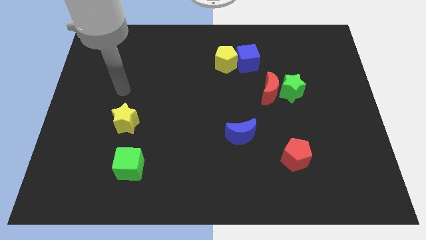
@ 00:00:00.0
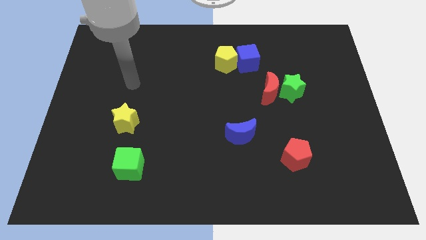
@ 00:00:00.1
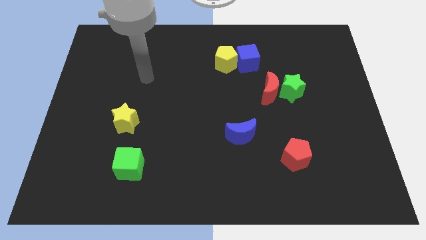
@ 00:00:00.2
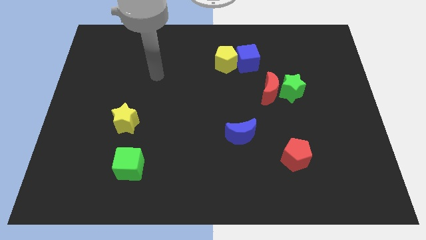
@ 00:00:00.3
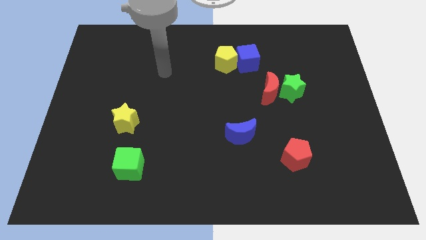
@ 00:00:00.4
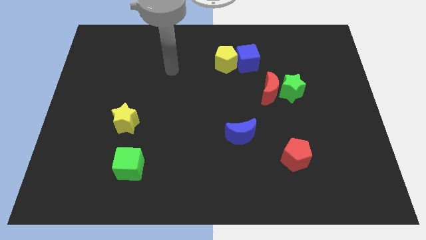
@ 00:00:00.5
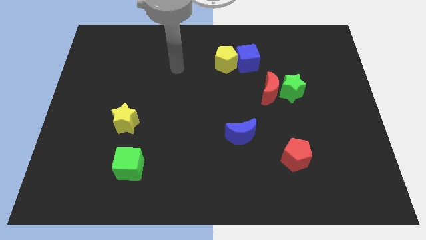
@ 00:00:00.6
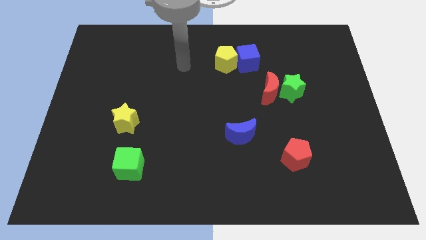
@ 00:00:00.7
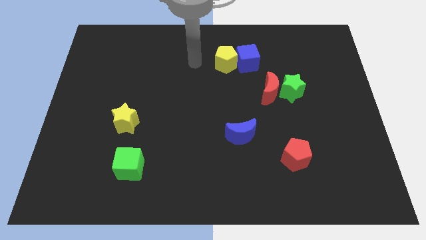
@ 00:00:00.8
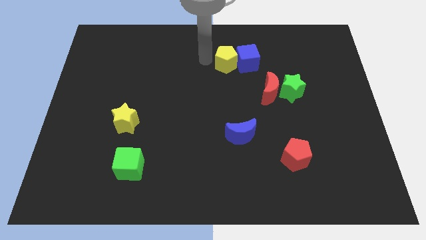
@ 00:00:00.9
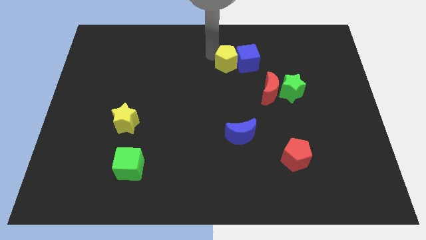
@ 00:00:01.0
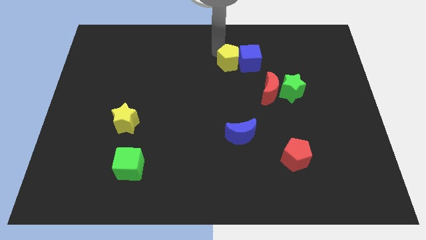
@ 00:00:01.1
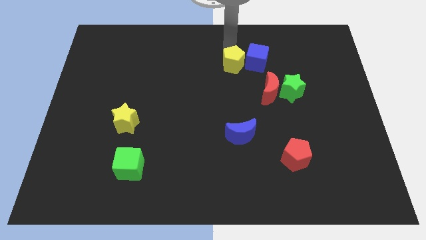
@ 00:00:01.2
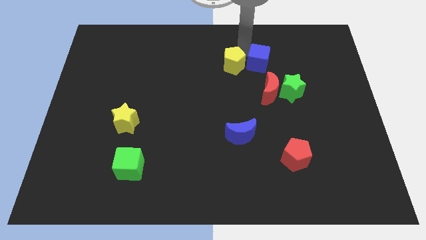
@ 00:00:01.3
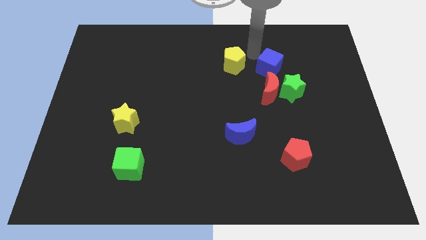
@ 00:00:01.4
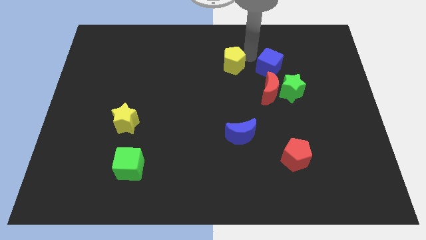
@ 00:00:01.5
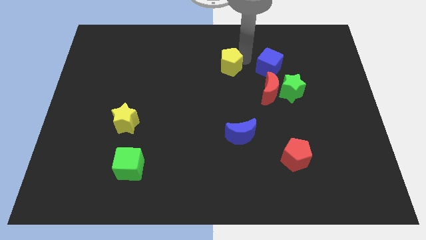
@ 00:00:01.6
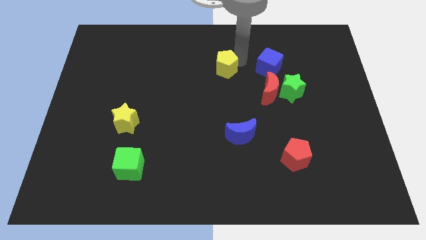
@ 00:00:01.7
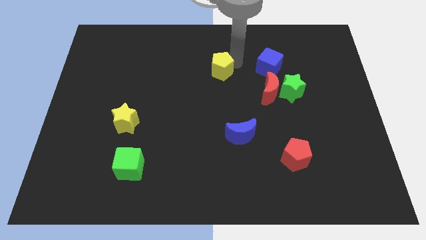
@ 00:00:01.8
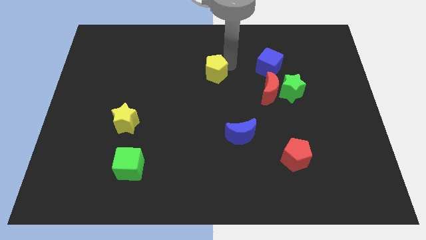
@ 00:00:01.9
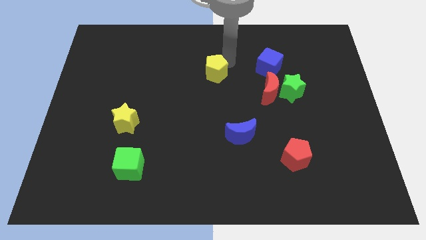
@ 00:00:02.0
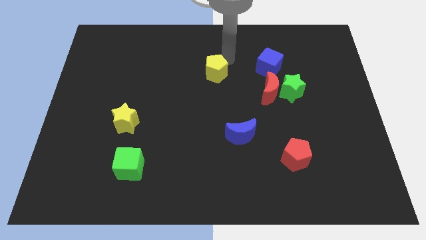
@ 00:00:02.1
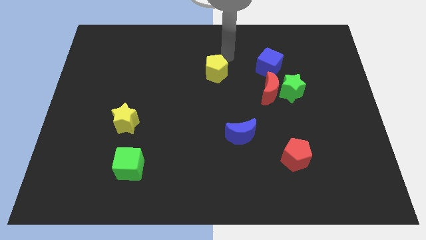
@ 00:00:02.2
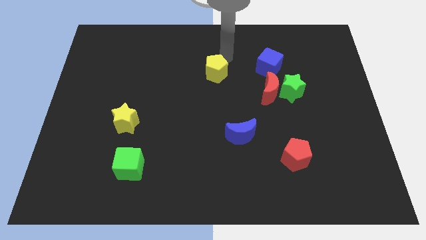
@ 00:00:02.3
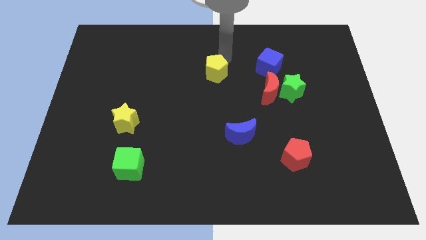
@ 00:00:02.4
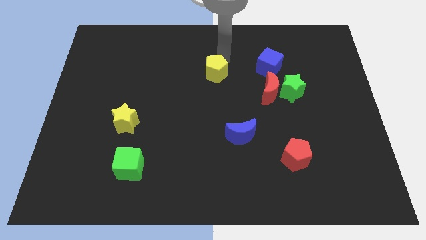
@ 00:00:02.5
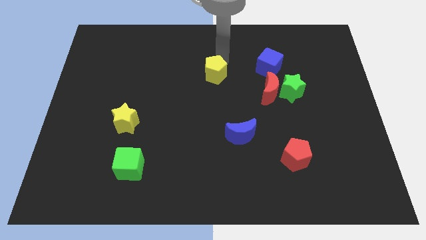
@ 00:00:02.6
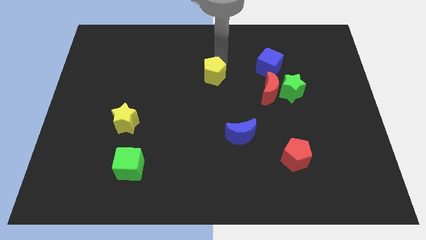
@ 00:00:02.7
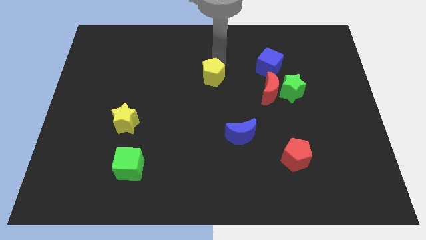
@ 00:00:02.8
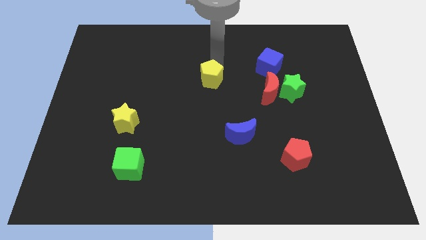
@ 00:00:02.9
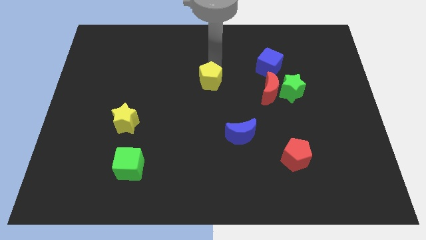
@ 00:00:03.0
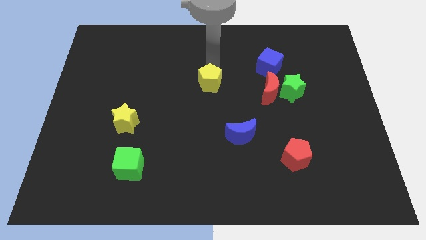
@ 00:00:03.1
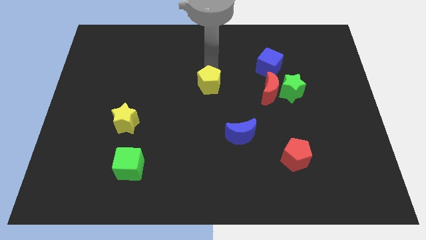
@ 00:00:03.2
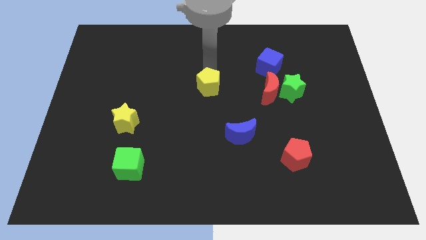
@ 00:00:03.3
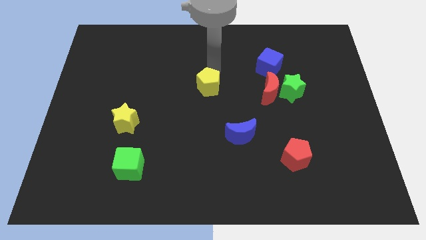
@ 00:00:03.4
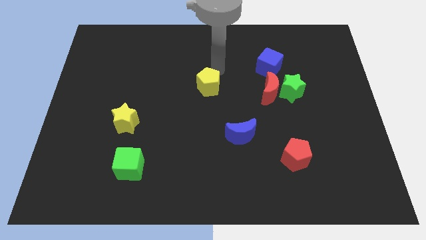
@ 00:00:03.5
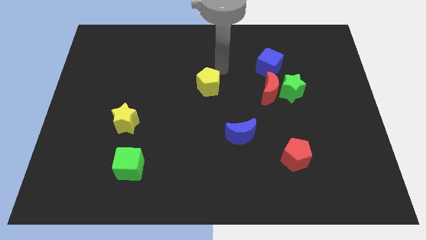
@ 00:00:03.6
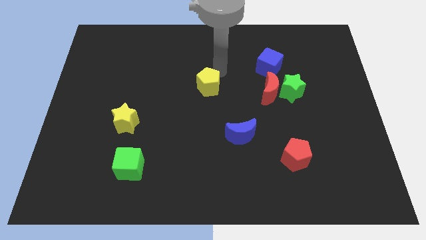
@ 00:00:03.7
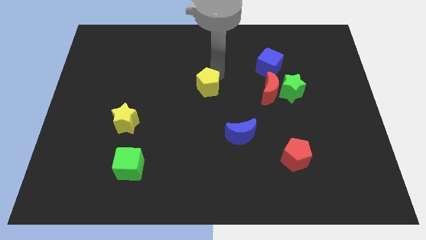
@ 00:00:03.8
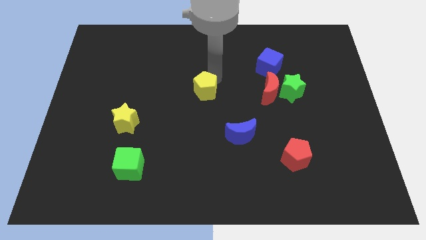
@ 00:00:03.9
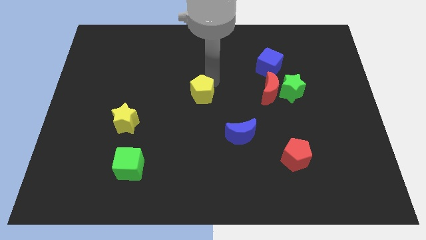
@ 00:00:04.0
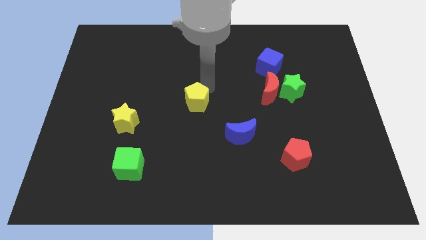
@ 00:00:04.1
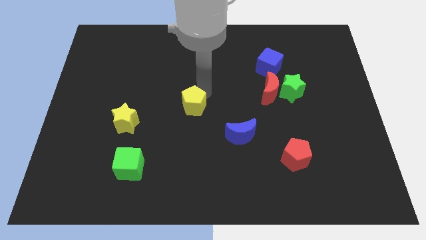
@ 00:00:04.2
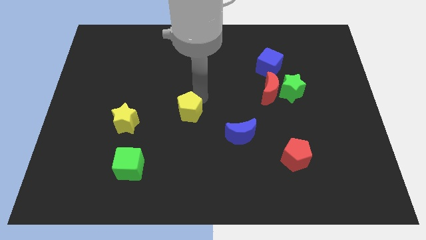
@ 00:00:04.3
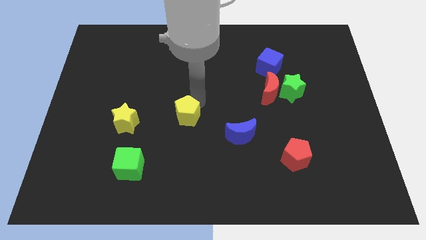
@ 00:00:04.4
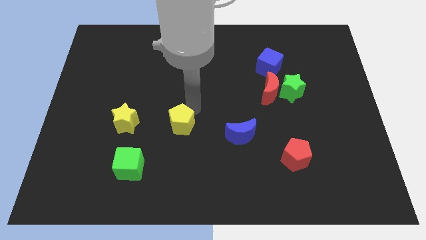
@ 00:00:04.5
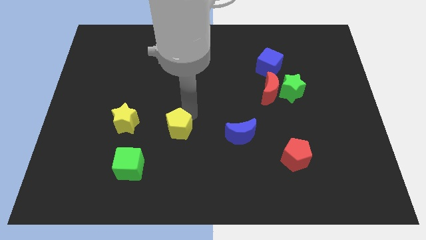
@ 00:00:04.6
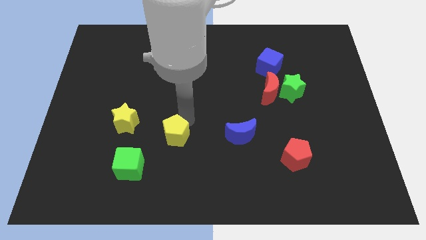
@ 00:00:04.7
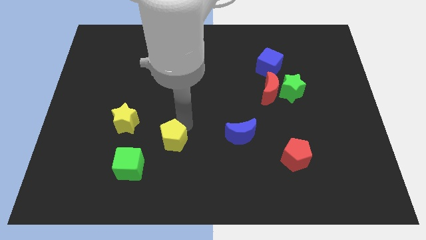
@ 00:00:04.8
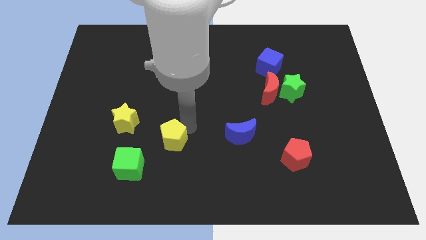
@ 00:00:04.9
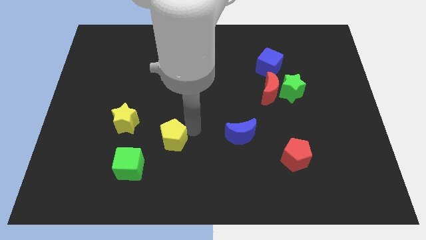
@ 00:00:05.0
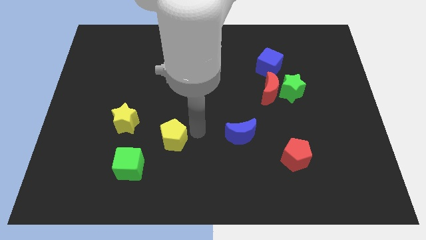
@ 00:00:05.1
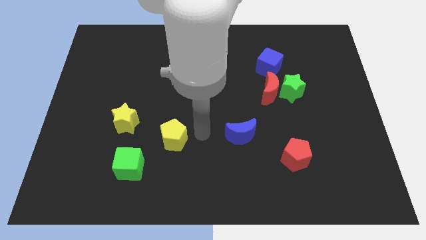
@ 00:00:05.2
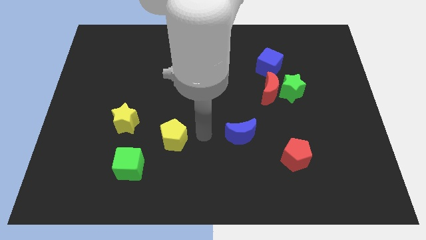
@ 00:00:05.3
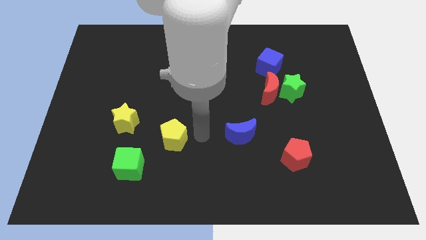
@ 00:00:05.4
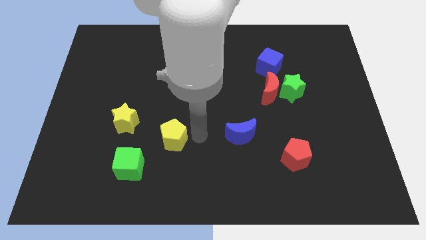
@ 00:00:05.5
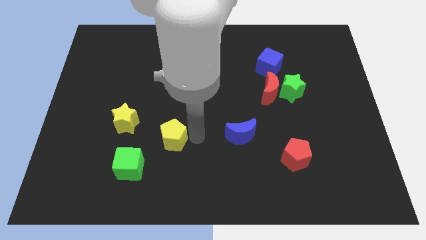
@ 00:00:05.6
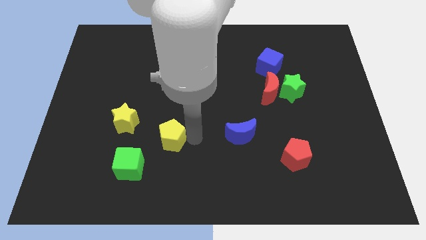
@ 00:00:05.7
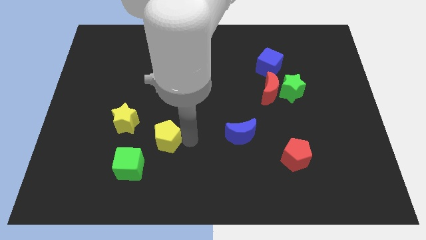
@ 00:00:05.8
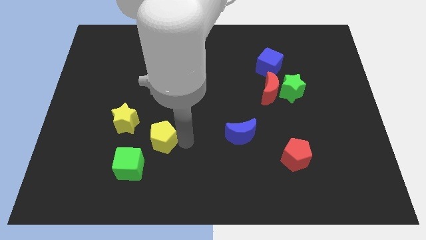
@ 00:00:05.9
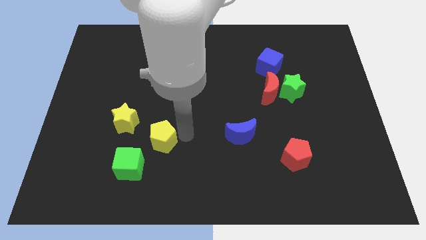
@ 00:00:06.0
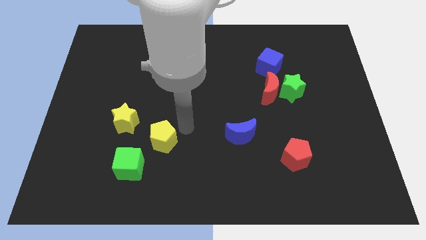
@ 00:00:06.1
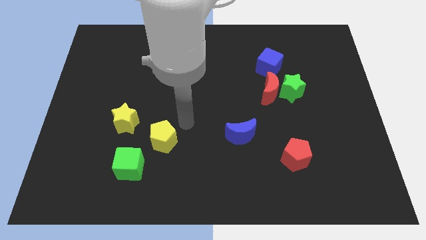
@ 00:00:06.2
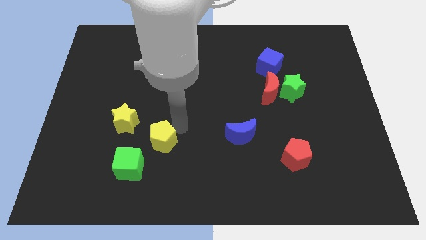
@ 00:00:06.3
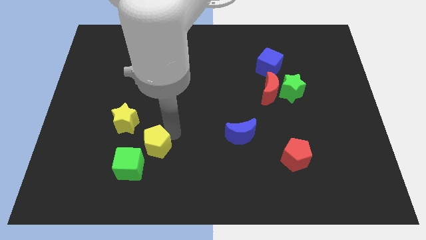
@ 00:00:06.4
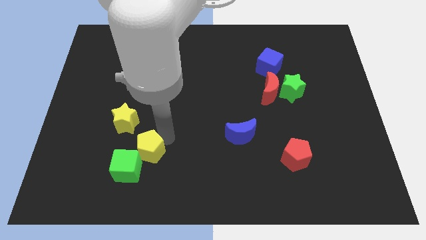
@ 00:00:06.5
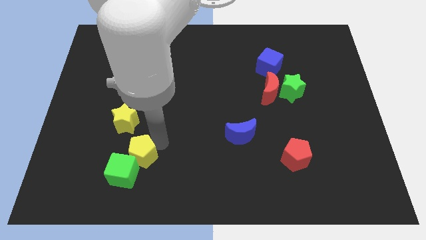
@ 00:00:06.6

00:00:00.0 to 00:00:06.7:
slide the yellow pentagon close to the green cube

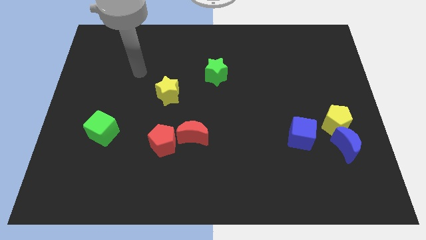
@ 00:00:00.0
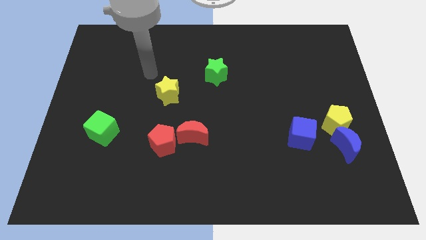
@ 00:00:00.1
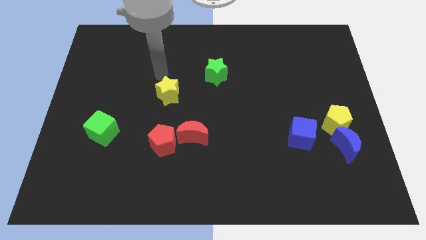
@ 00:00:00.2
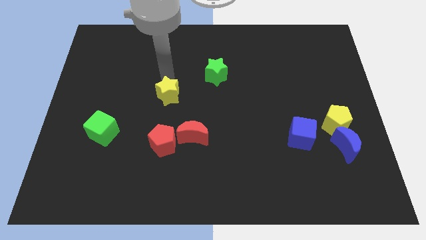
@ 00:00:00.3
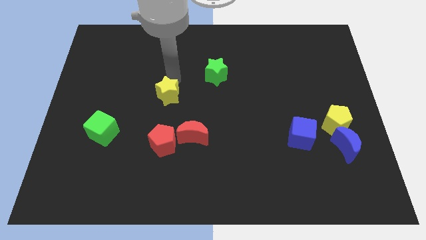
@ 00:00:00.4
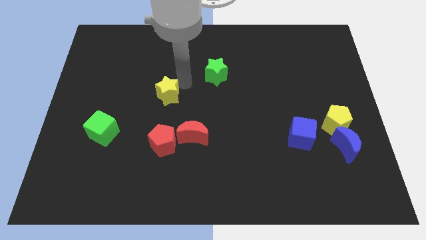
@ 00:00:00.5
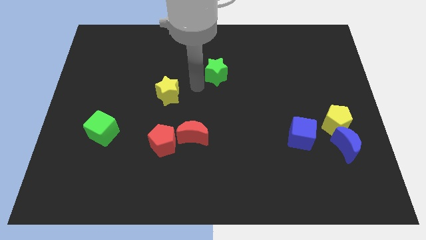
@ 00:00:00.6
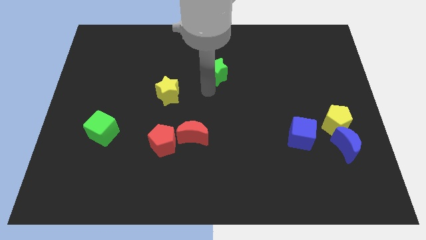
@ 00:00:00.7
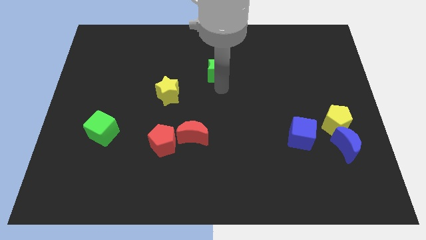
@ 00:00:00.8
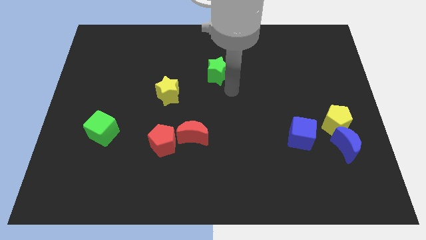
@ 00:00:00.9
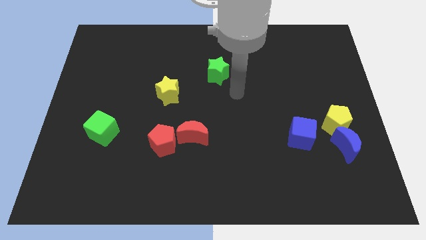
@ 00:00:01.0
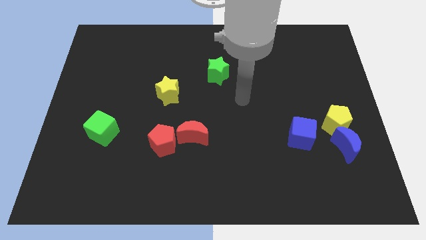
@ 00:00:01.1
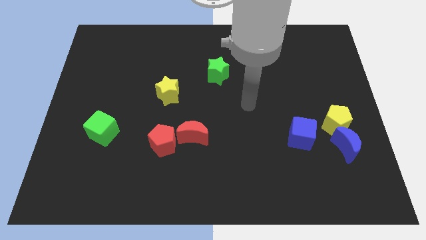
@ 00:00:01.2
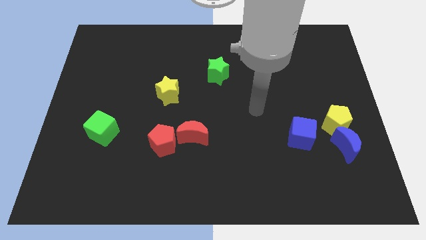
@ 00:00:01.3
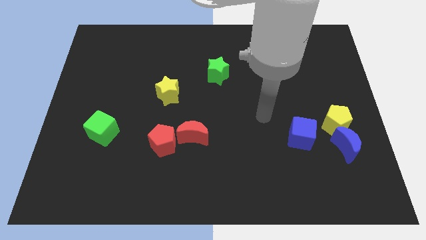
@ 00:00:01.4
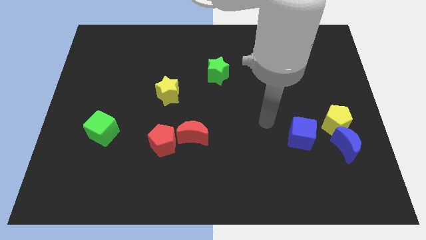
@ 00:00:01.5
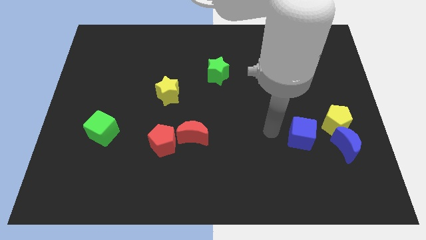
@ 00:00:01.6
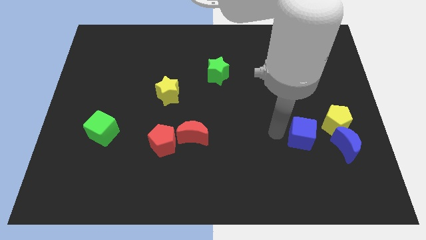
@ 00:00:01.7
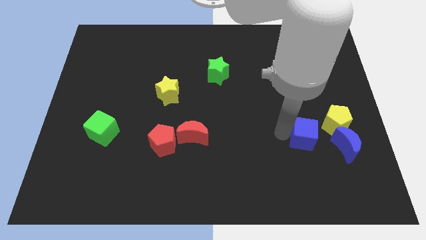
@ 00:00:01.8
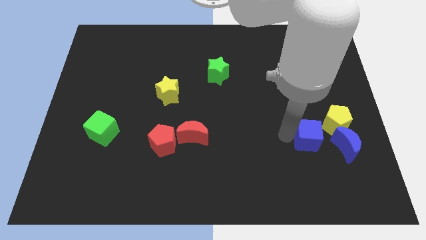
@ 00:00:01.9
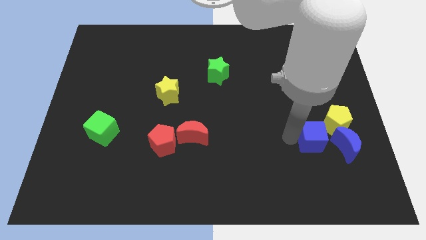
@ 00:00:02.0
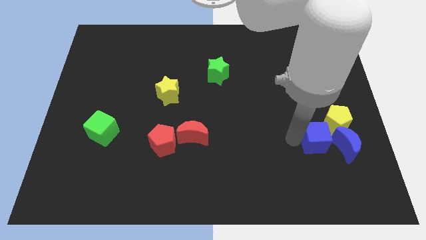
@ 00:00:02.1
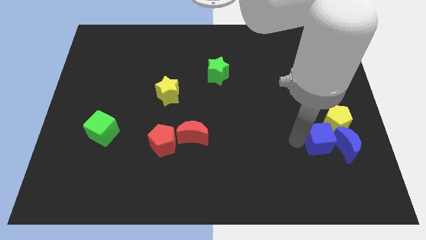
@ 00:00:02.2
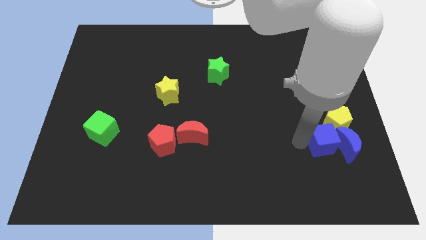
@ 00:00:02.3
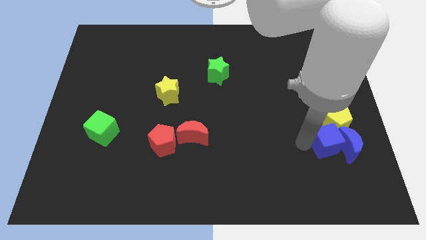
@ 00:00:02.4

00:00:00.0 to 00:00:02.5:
put the blue cube to the yellow pentagon
